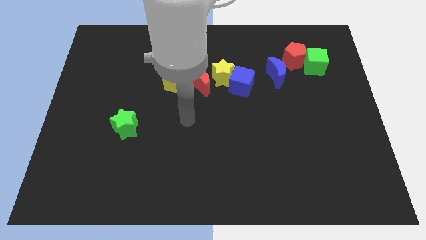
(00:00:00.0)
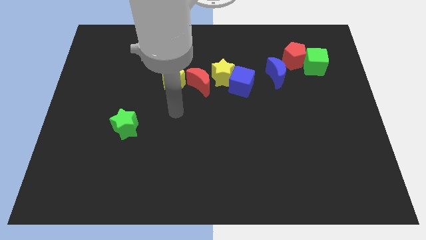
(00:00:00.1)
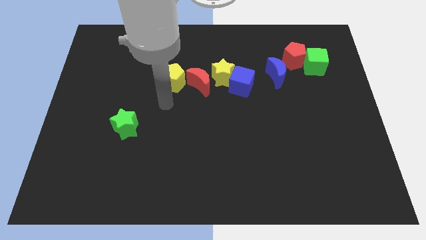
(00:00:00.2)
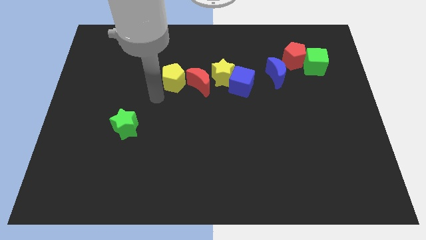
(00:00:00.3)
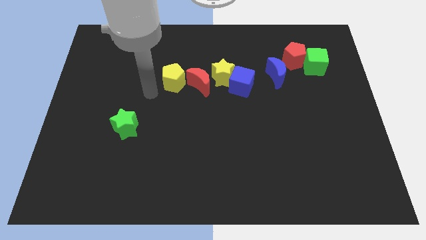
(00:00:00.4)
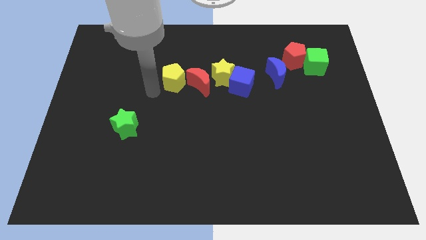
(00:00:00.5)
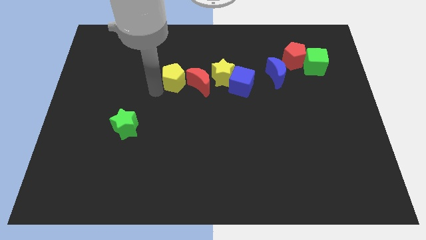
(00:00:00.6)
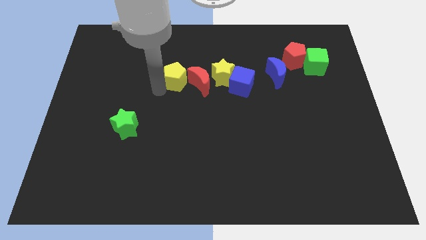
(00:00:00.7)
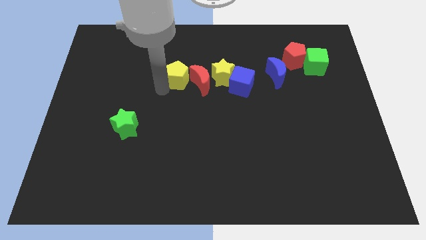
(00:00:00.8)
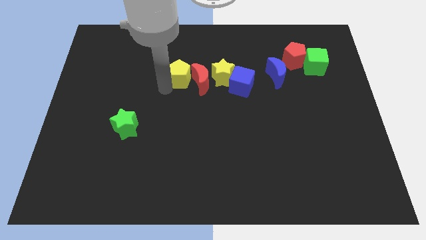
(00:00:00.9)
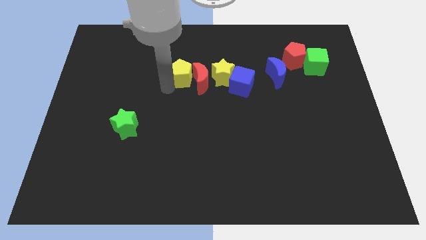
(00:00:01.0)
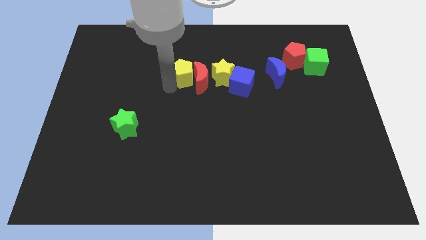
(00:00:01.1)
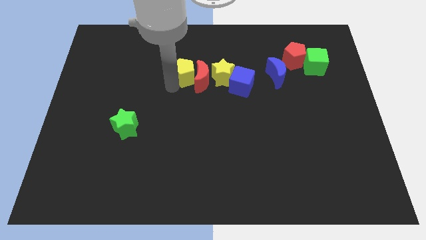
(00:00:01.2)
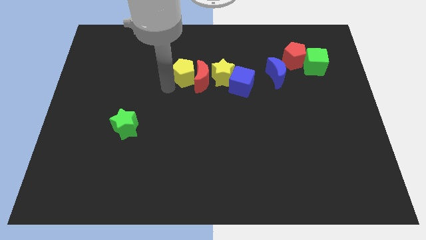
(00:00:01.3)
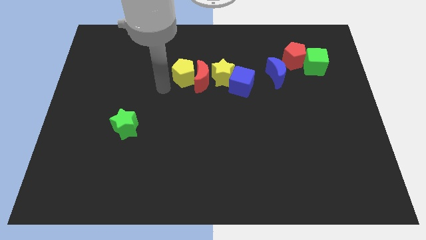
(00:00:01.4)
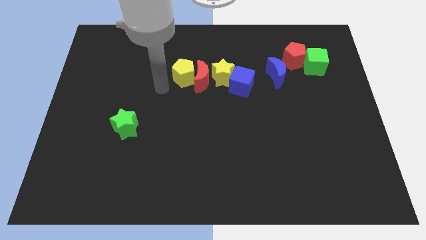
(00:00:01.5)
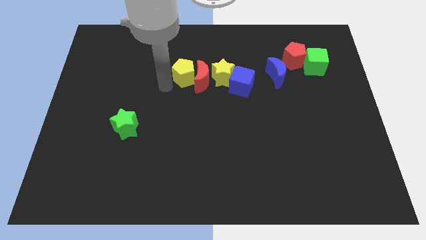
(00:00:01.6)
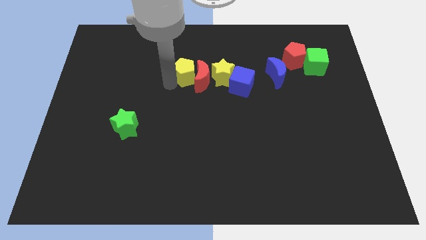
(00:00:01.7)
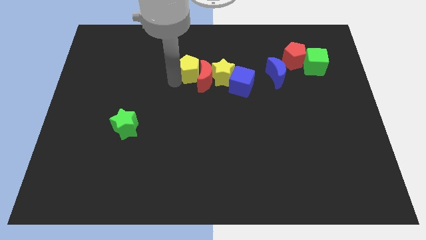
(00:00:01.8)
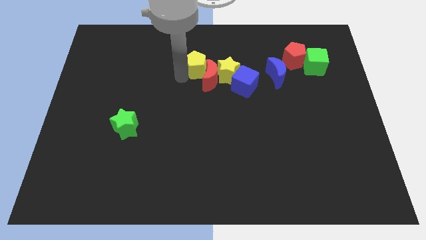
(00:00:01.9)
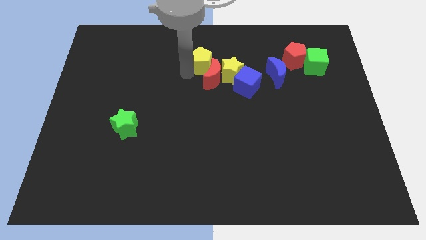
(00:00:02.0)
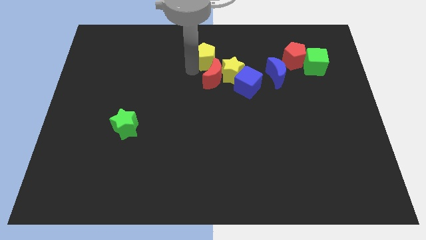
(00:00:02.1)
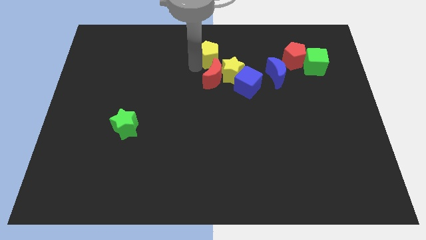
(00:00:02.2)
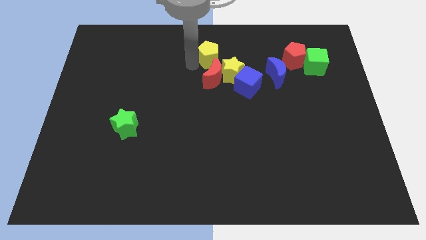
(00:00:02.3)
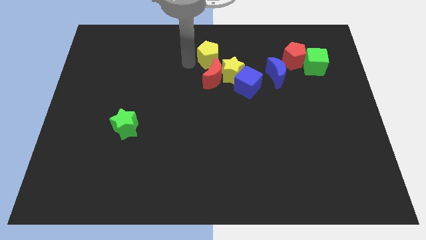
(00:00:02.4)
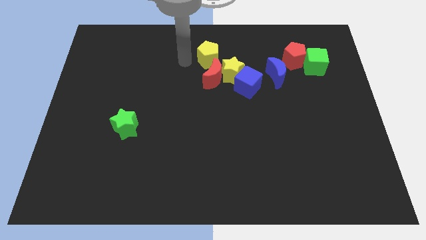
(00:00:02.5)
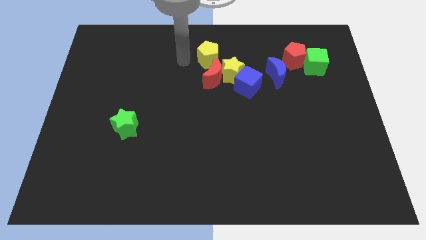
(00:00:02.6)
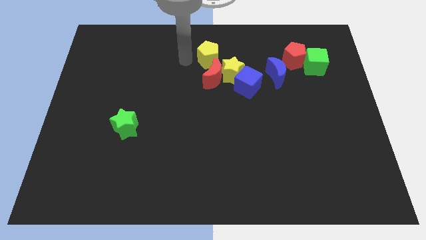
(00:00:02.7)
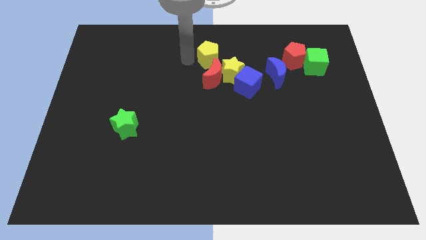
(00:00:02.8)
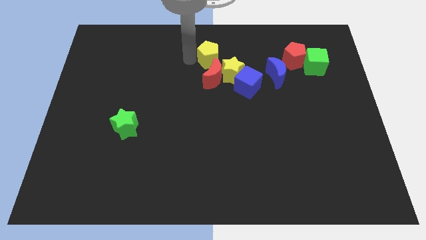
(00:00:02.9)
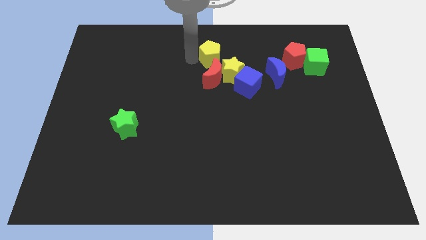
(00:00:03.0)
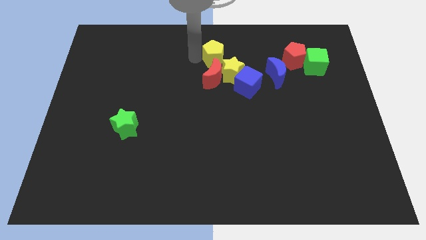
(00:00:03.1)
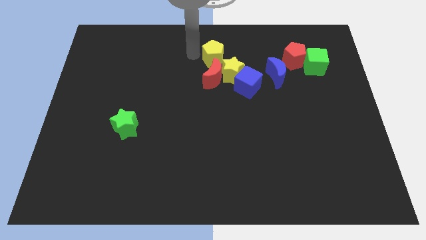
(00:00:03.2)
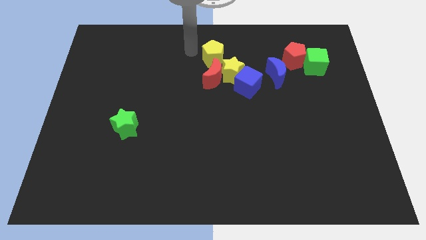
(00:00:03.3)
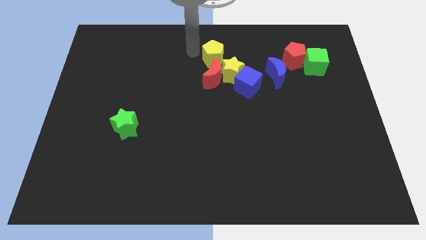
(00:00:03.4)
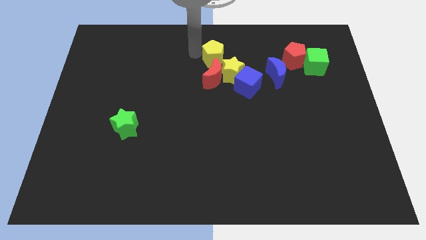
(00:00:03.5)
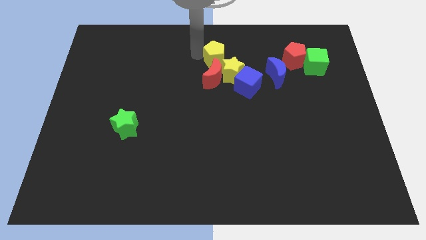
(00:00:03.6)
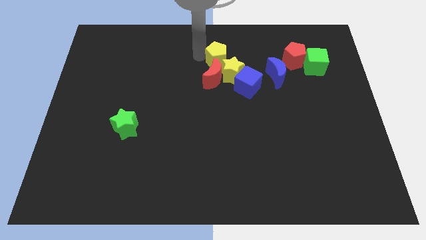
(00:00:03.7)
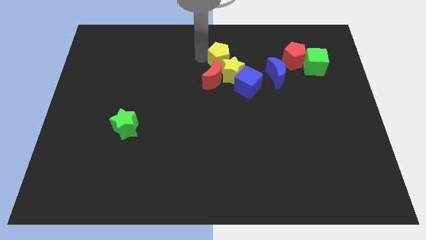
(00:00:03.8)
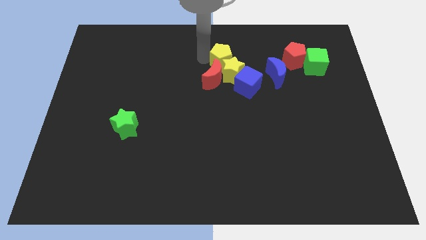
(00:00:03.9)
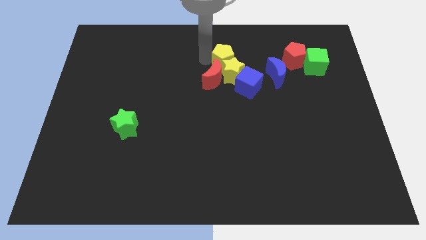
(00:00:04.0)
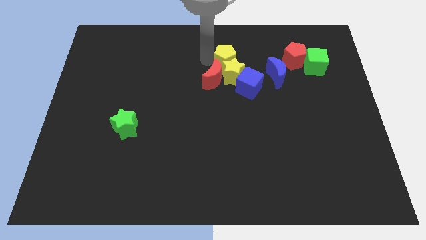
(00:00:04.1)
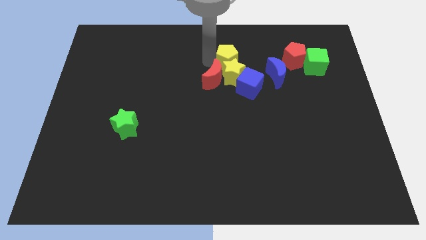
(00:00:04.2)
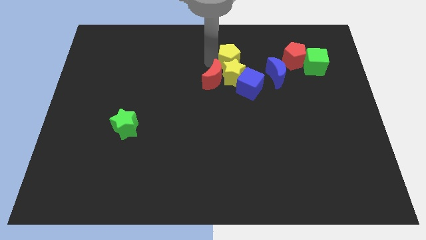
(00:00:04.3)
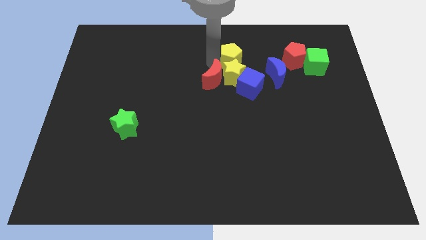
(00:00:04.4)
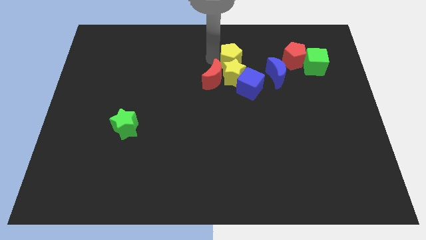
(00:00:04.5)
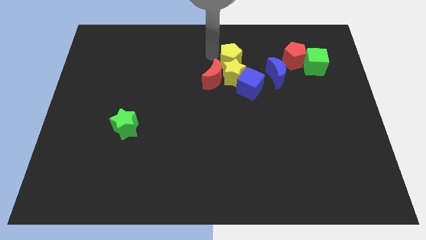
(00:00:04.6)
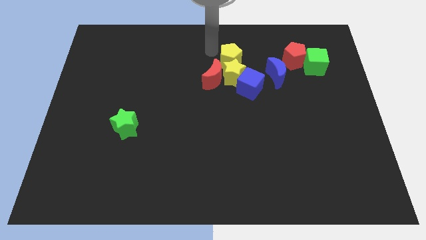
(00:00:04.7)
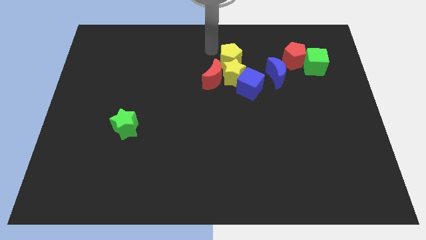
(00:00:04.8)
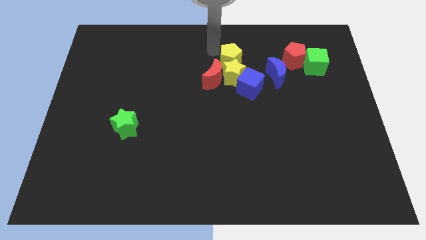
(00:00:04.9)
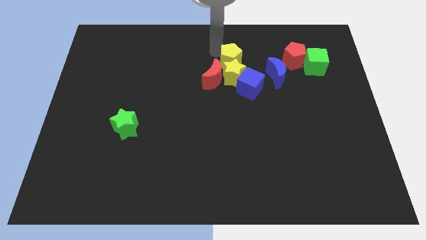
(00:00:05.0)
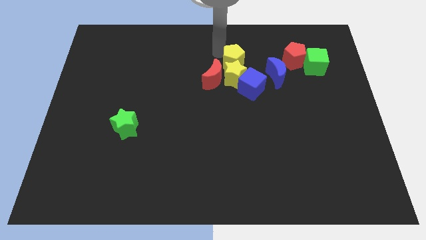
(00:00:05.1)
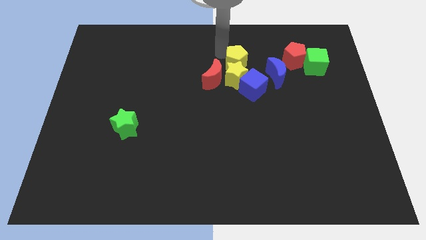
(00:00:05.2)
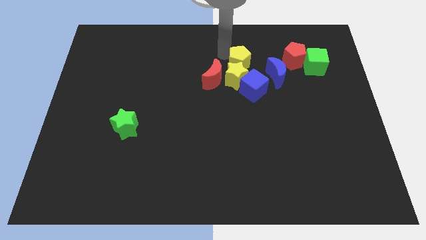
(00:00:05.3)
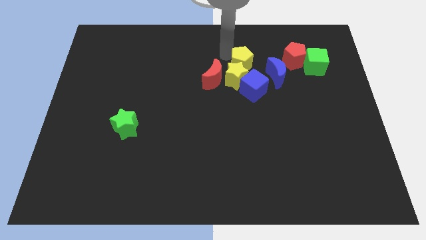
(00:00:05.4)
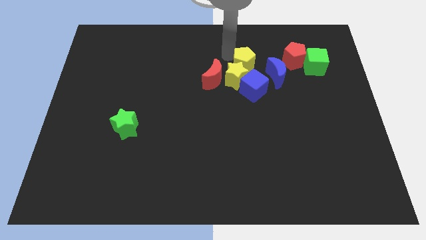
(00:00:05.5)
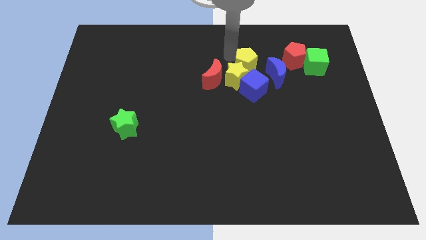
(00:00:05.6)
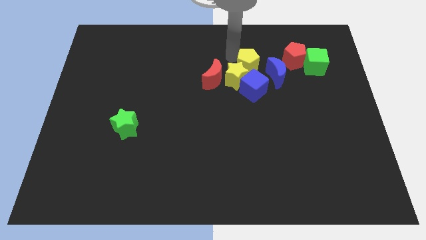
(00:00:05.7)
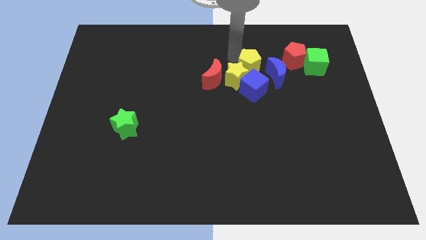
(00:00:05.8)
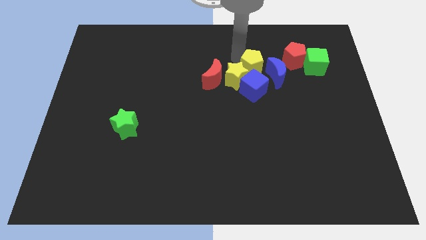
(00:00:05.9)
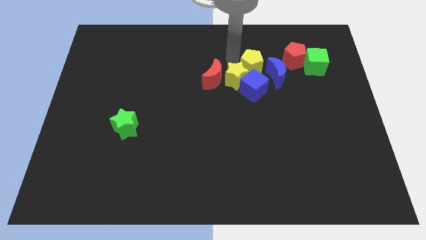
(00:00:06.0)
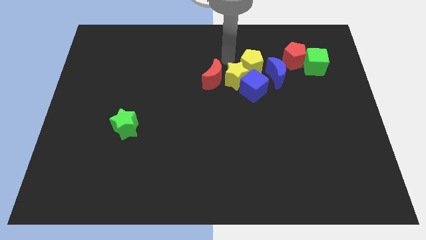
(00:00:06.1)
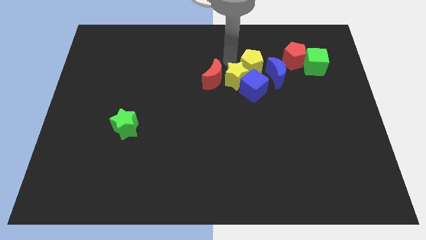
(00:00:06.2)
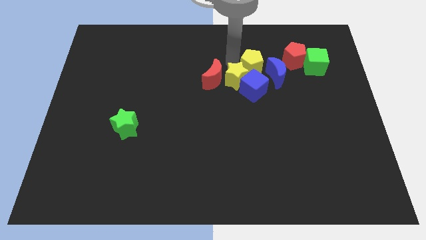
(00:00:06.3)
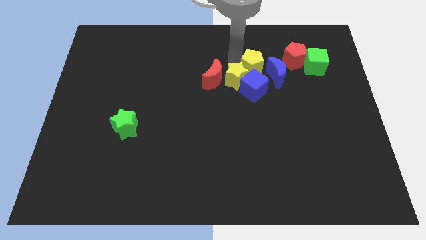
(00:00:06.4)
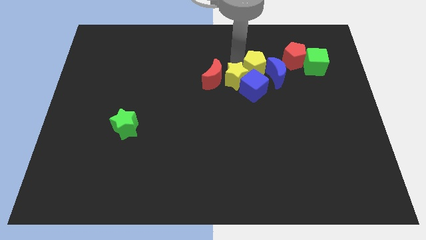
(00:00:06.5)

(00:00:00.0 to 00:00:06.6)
move the yellow pentagon next to the blue moon

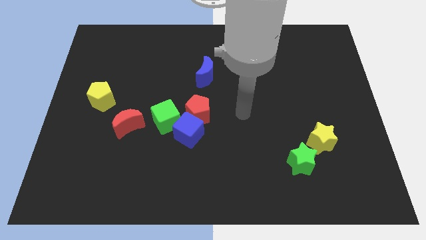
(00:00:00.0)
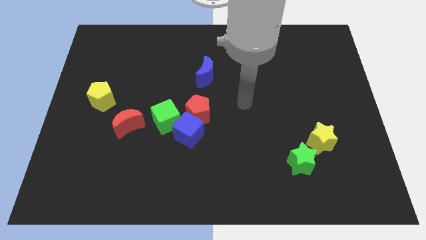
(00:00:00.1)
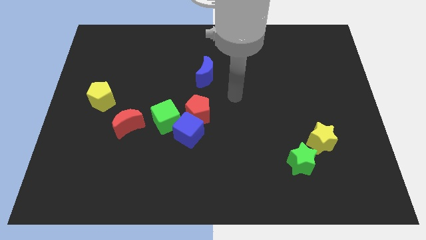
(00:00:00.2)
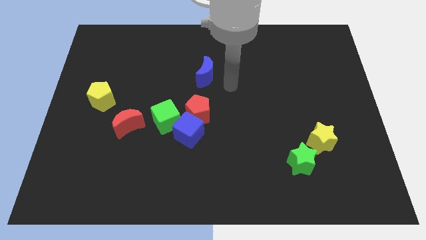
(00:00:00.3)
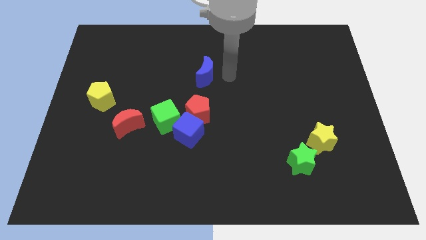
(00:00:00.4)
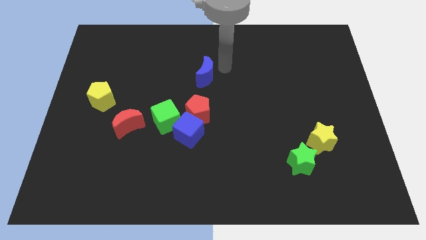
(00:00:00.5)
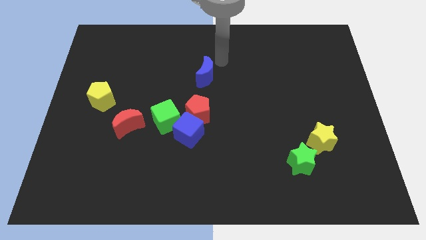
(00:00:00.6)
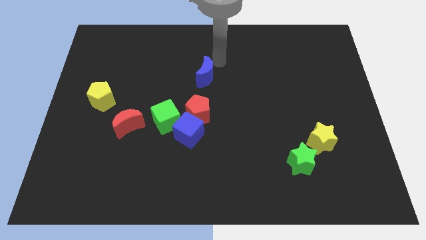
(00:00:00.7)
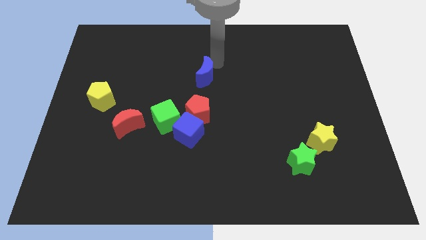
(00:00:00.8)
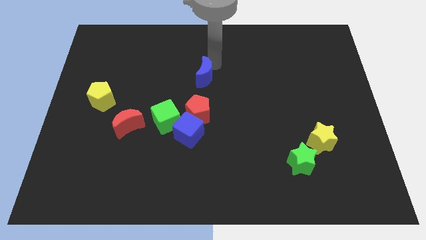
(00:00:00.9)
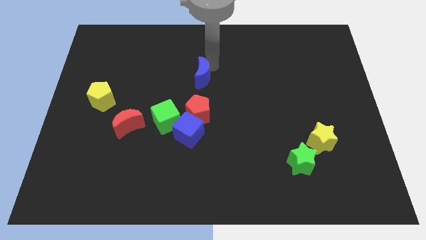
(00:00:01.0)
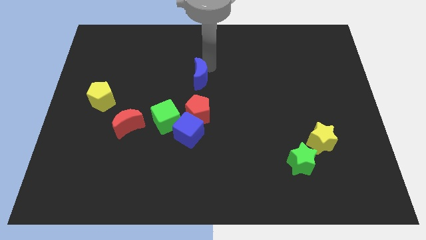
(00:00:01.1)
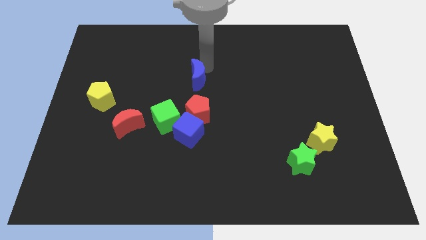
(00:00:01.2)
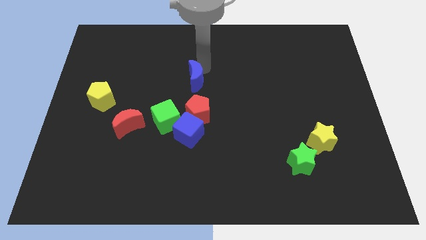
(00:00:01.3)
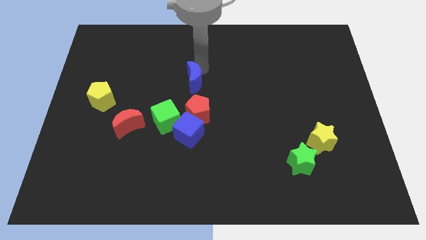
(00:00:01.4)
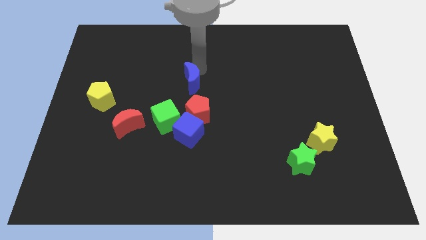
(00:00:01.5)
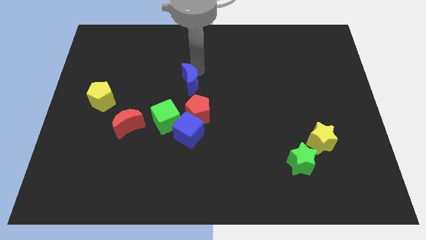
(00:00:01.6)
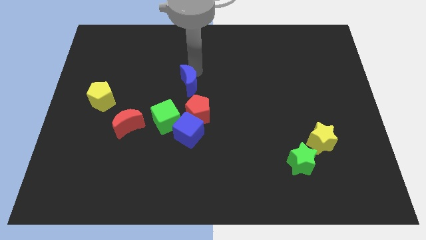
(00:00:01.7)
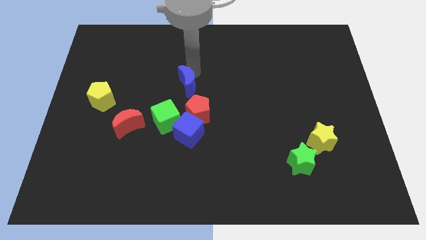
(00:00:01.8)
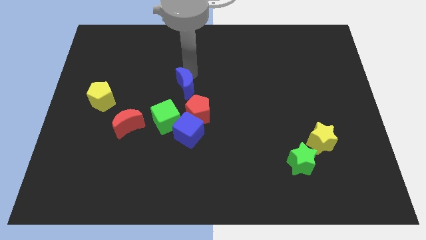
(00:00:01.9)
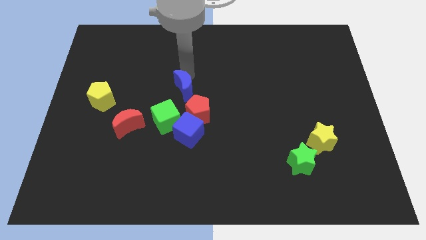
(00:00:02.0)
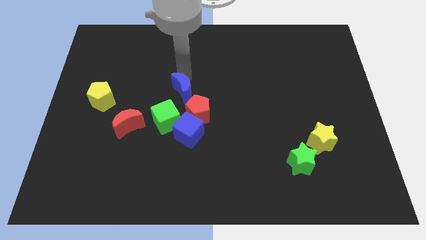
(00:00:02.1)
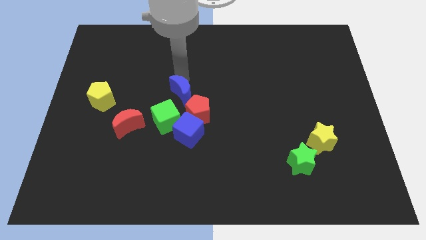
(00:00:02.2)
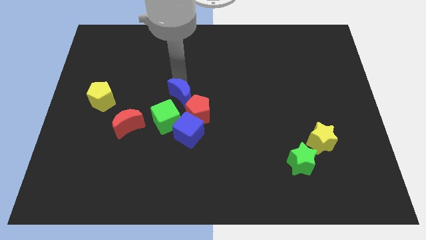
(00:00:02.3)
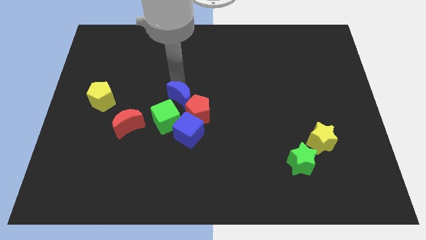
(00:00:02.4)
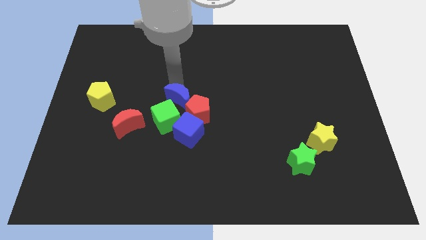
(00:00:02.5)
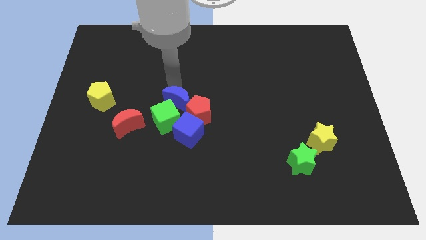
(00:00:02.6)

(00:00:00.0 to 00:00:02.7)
push the blue moon next to the green cube
